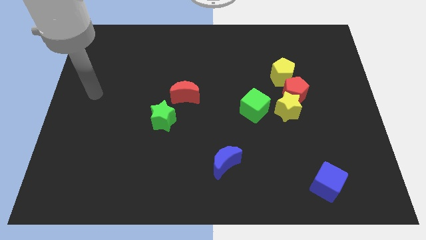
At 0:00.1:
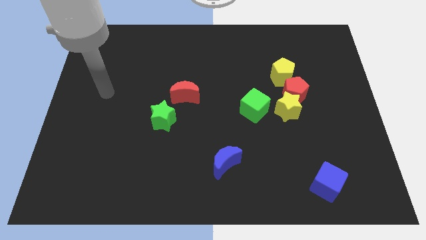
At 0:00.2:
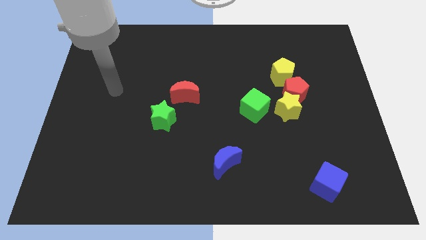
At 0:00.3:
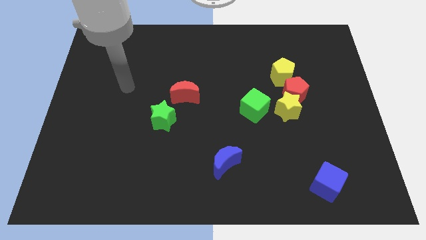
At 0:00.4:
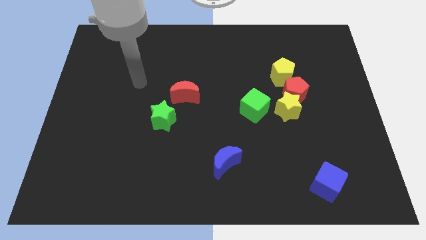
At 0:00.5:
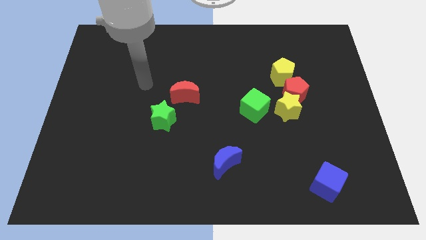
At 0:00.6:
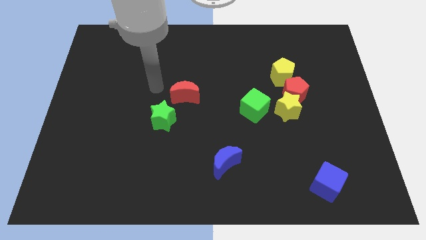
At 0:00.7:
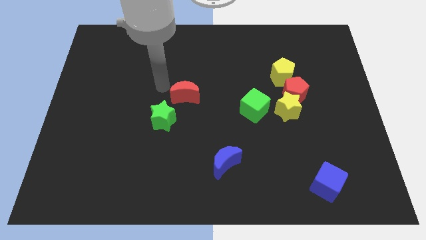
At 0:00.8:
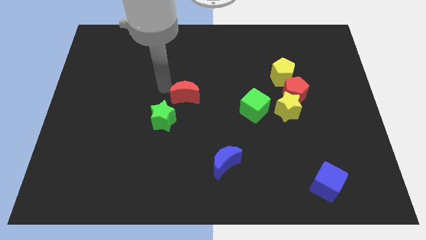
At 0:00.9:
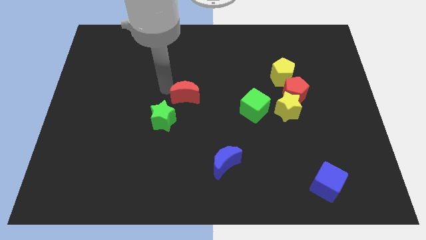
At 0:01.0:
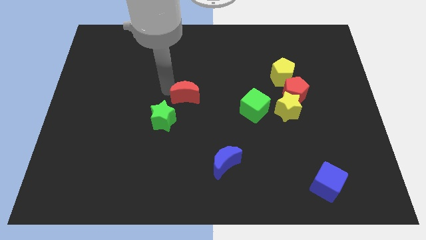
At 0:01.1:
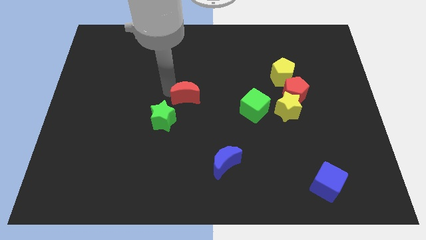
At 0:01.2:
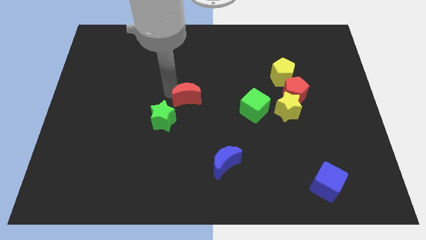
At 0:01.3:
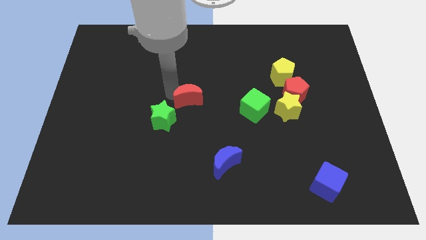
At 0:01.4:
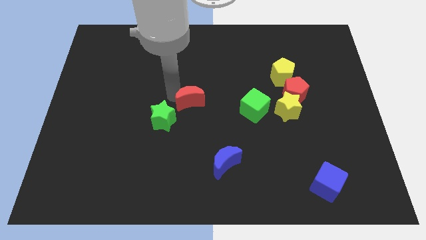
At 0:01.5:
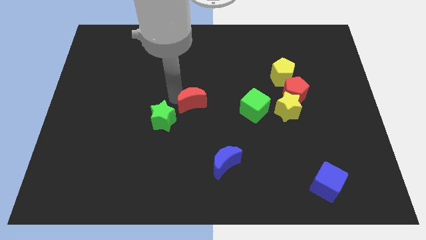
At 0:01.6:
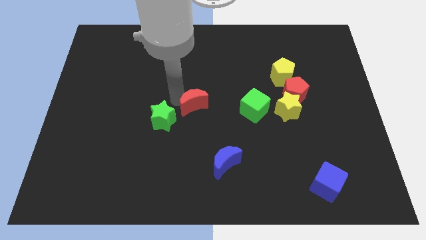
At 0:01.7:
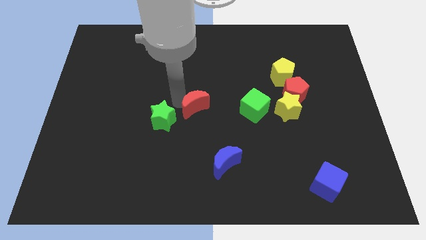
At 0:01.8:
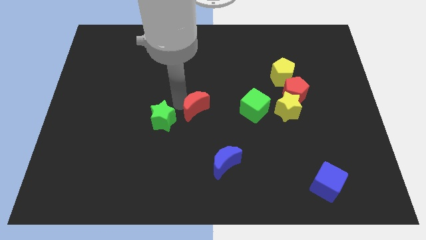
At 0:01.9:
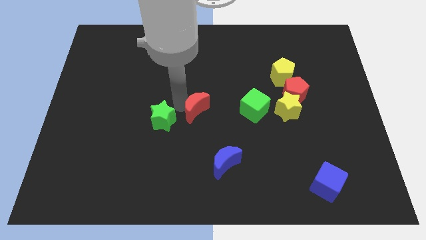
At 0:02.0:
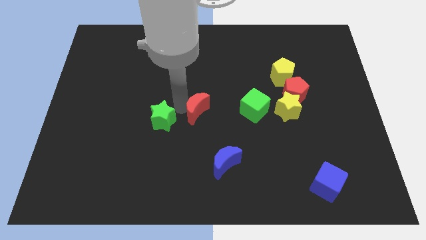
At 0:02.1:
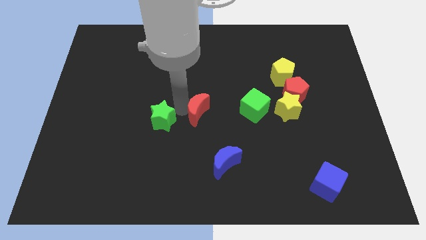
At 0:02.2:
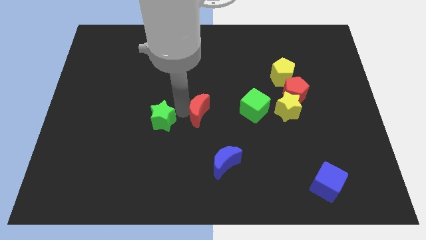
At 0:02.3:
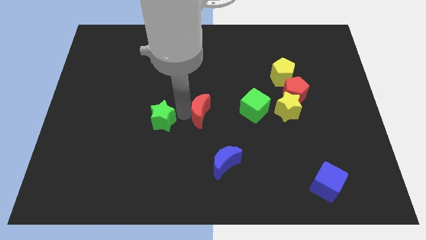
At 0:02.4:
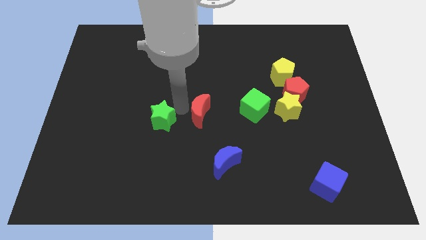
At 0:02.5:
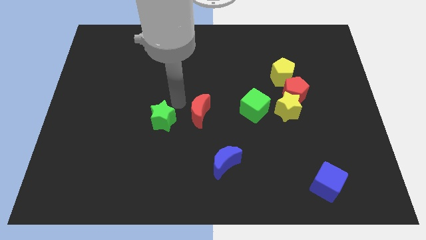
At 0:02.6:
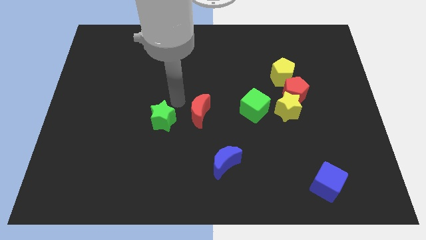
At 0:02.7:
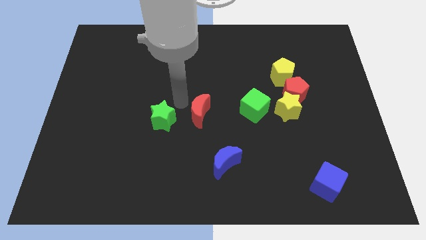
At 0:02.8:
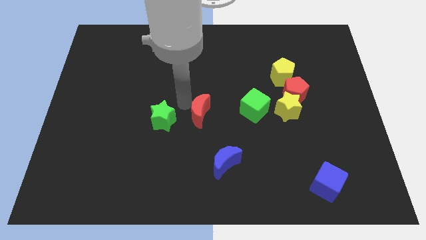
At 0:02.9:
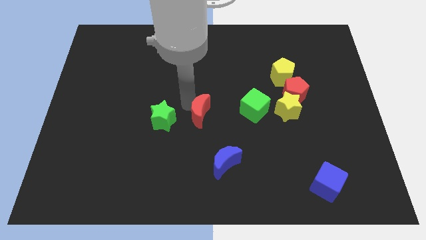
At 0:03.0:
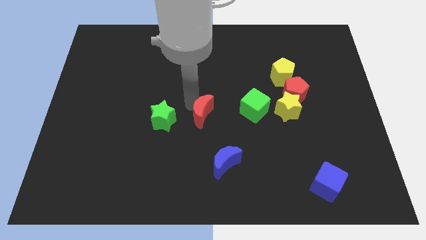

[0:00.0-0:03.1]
slightly slide the red moon down and right diagonally

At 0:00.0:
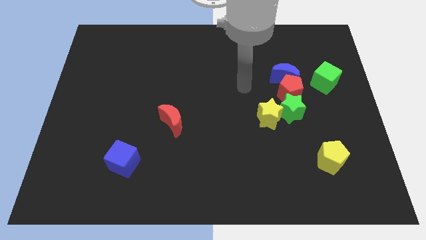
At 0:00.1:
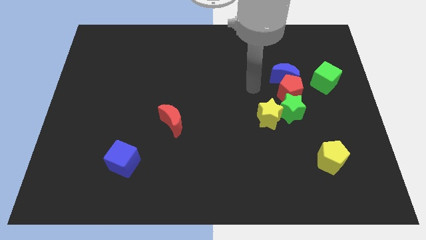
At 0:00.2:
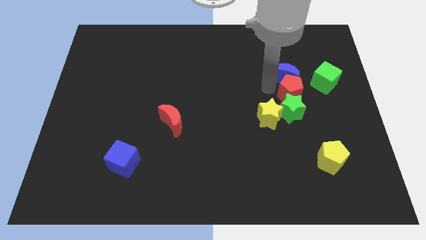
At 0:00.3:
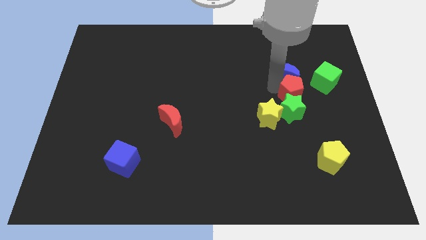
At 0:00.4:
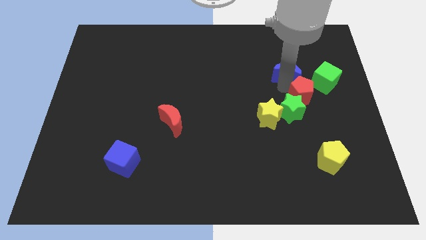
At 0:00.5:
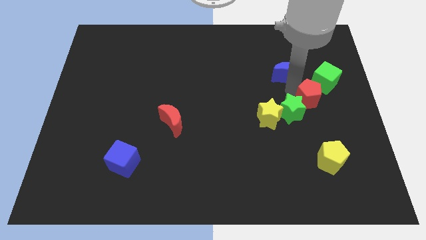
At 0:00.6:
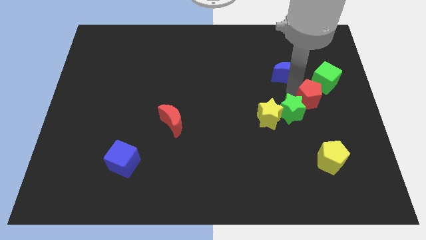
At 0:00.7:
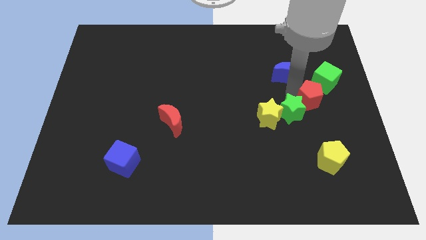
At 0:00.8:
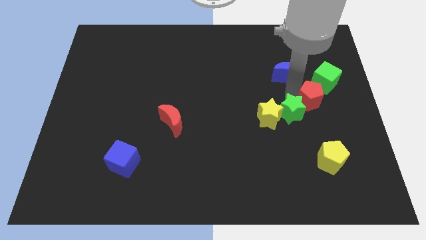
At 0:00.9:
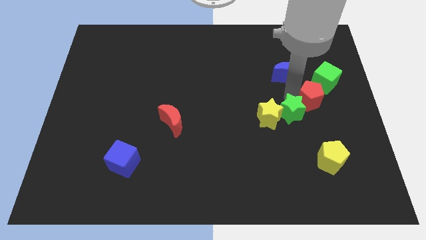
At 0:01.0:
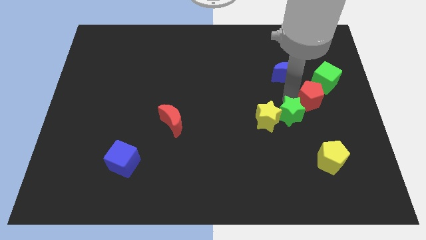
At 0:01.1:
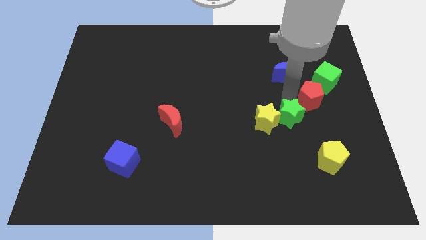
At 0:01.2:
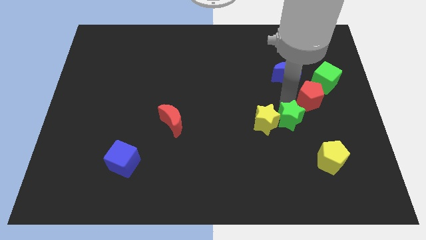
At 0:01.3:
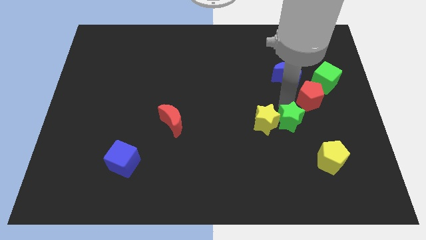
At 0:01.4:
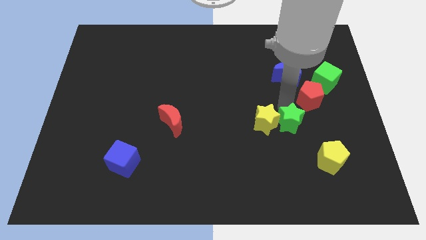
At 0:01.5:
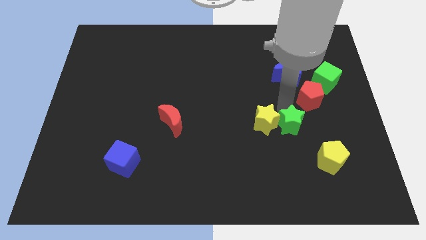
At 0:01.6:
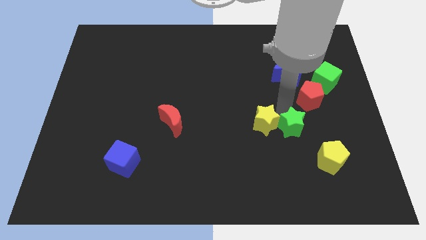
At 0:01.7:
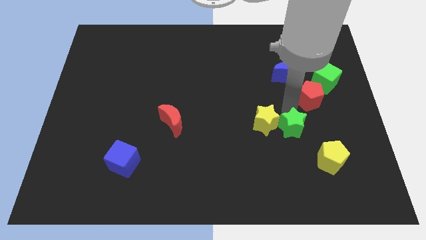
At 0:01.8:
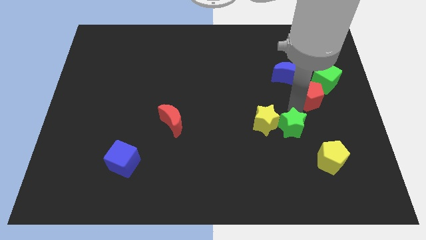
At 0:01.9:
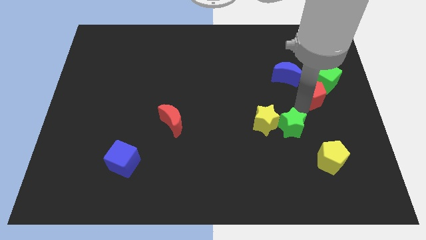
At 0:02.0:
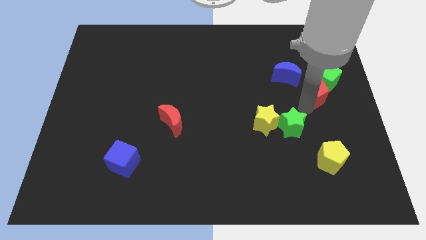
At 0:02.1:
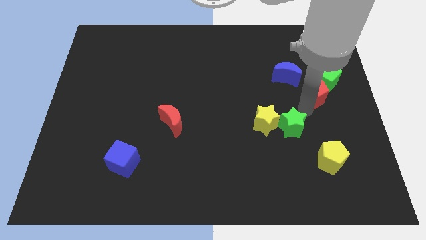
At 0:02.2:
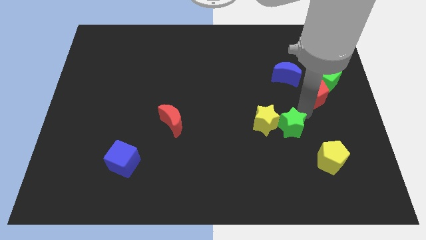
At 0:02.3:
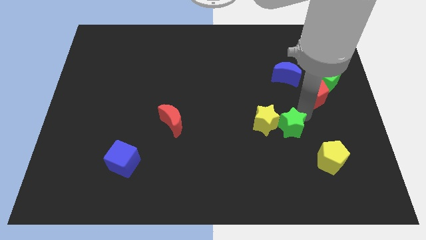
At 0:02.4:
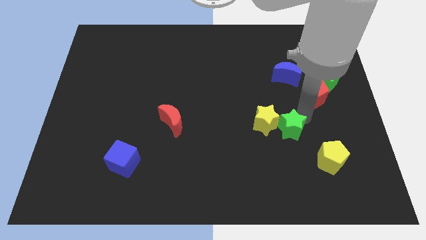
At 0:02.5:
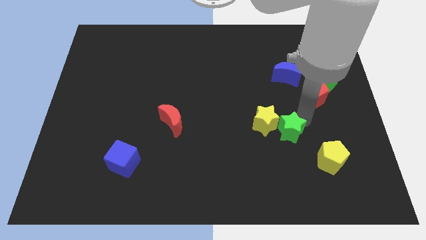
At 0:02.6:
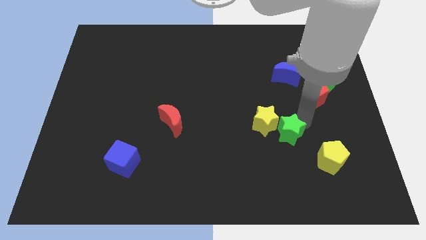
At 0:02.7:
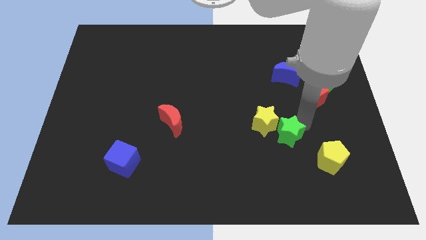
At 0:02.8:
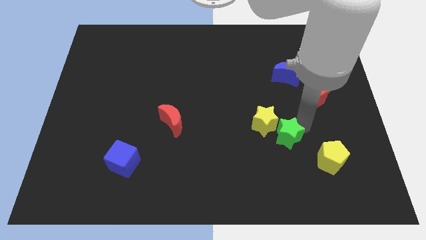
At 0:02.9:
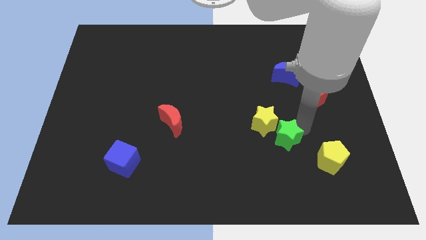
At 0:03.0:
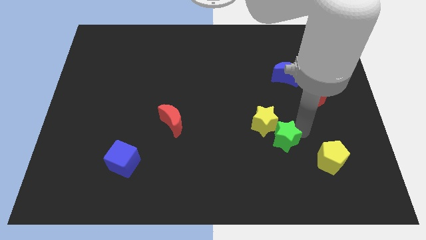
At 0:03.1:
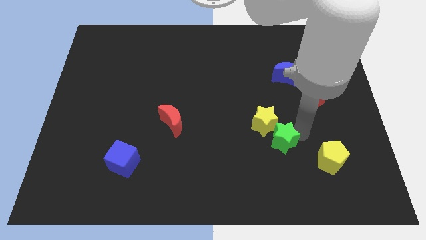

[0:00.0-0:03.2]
move the green star downwards and to the left diagonally a bit

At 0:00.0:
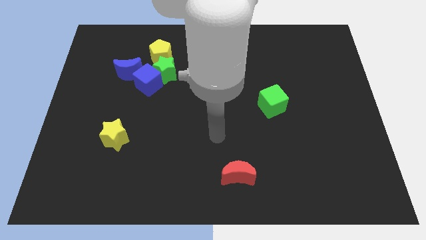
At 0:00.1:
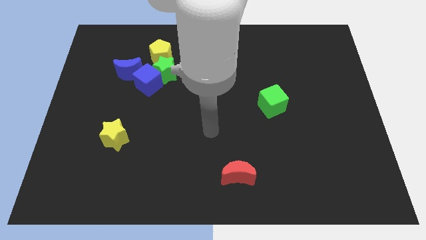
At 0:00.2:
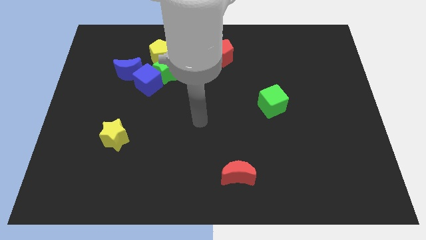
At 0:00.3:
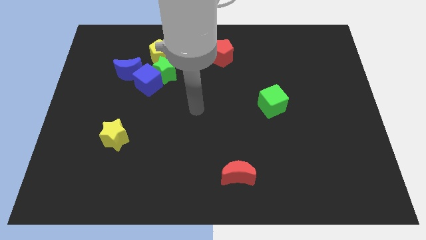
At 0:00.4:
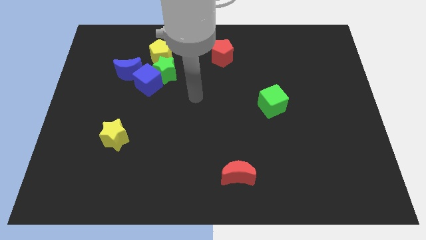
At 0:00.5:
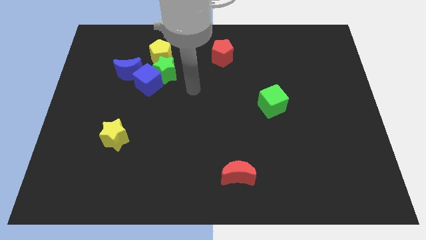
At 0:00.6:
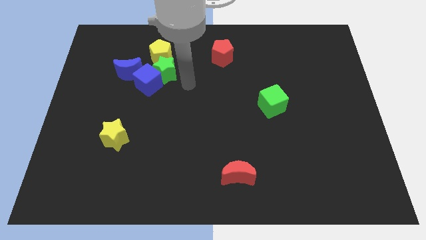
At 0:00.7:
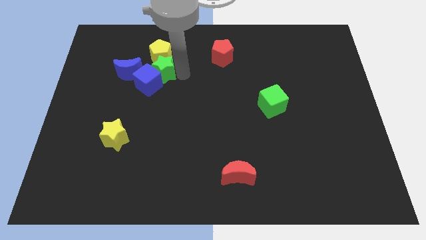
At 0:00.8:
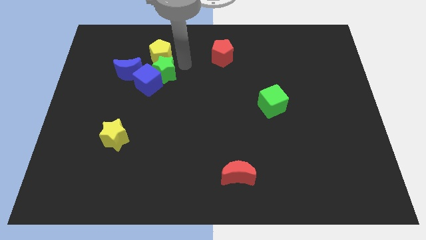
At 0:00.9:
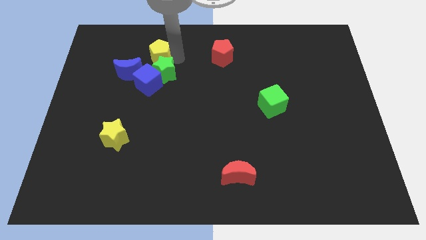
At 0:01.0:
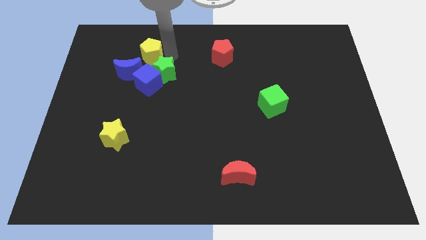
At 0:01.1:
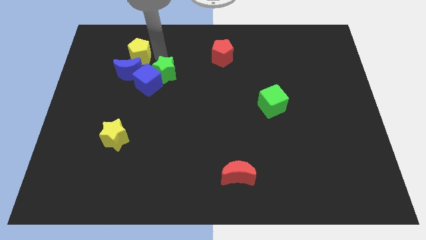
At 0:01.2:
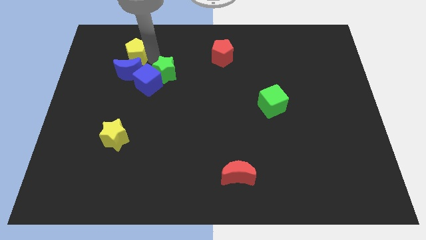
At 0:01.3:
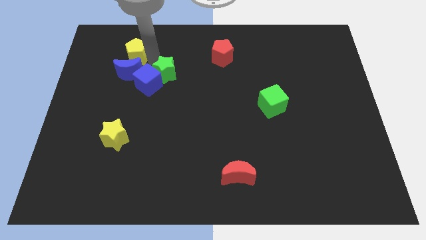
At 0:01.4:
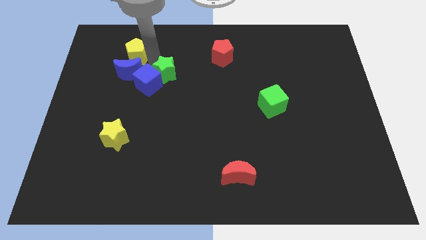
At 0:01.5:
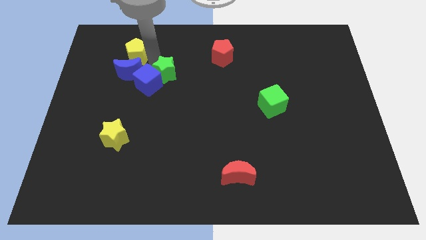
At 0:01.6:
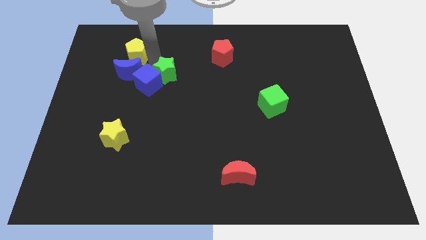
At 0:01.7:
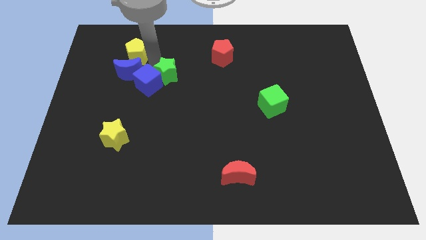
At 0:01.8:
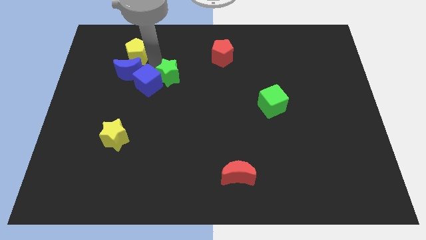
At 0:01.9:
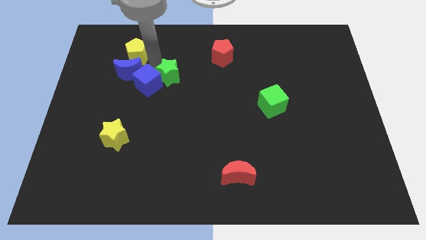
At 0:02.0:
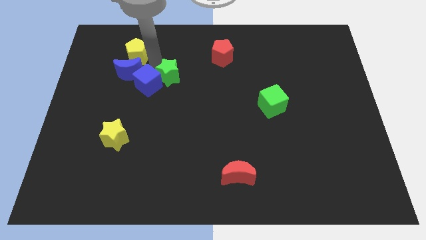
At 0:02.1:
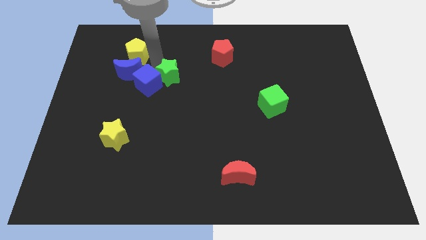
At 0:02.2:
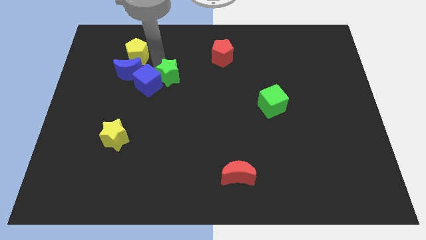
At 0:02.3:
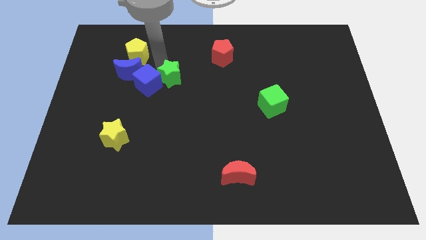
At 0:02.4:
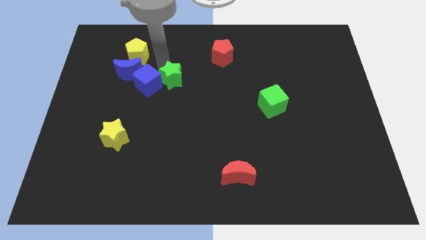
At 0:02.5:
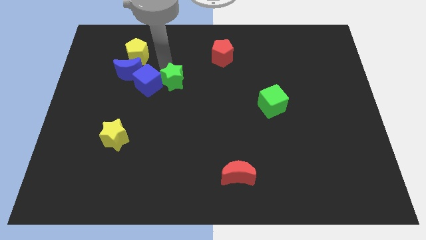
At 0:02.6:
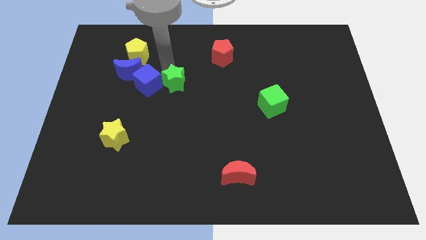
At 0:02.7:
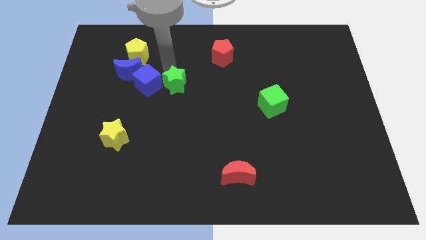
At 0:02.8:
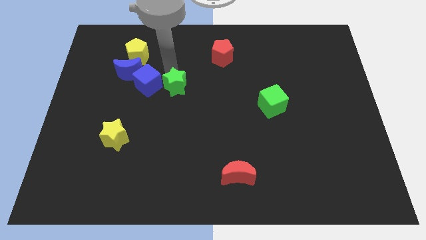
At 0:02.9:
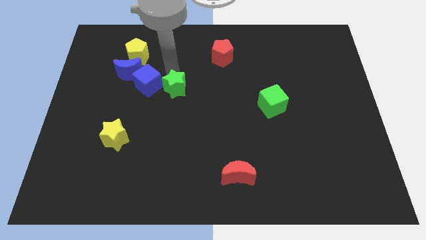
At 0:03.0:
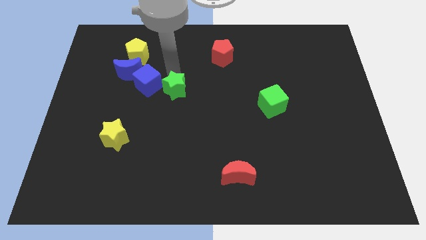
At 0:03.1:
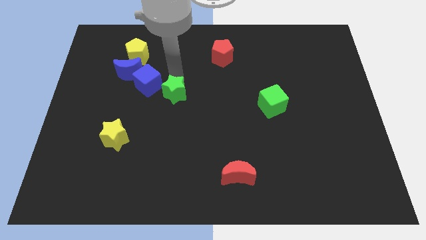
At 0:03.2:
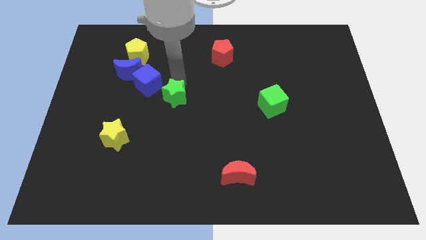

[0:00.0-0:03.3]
slide the green star downwards and to the right a little
